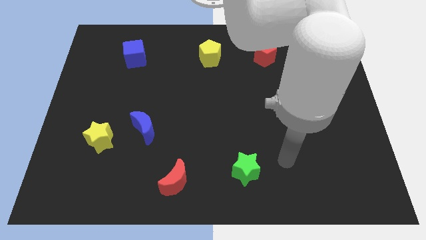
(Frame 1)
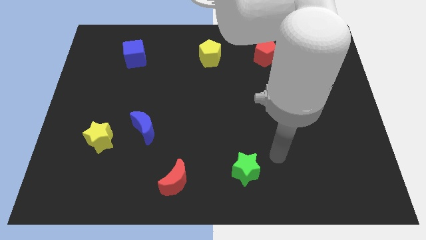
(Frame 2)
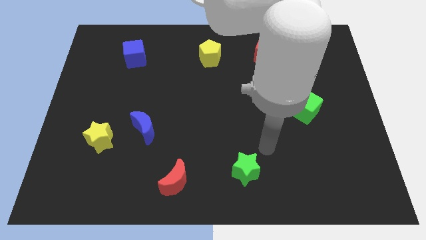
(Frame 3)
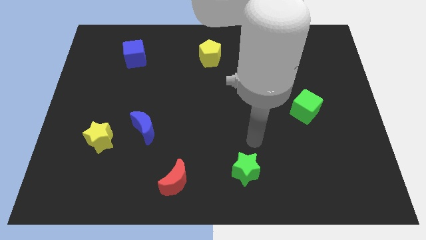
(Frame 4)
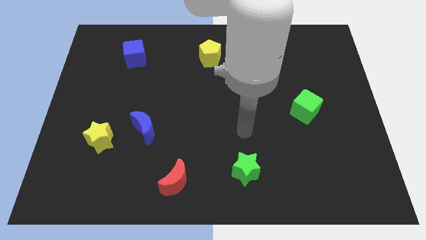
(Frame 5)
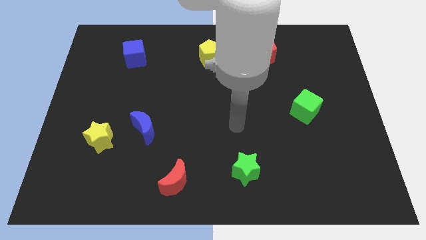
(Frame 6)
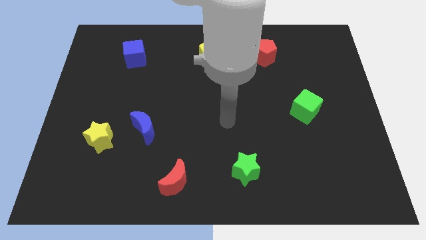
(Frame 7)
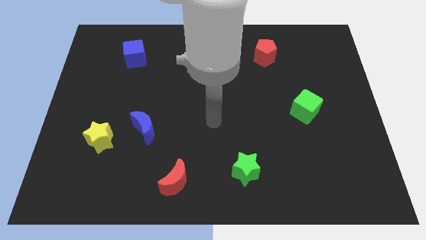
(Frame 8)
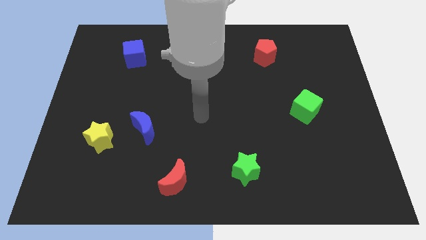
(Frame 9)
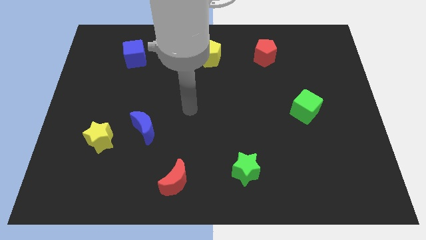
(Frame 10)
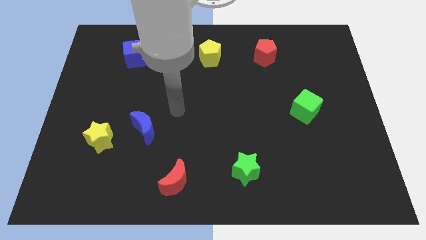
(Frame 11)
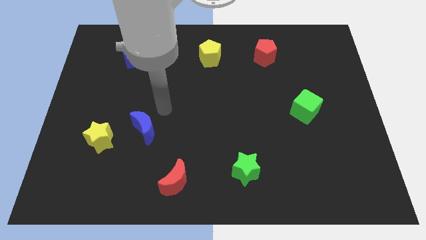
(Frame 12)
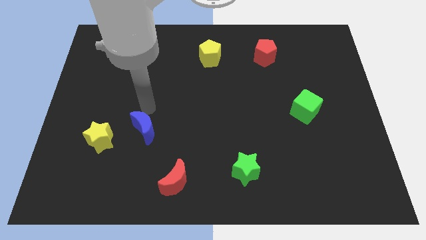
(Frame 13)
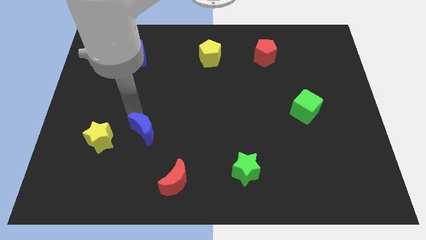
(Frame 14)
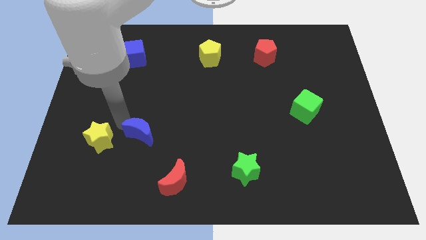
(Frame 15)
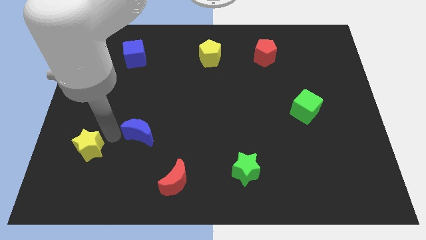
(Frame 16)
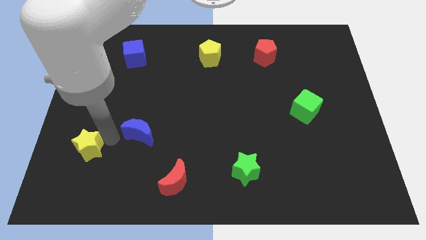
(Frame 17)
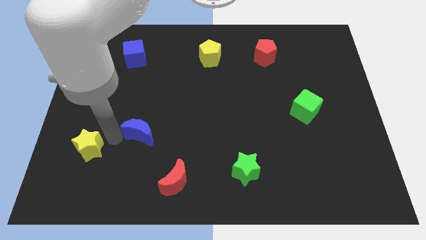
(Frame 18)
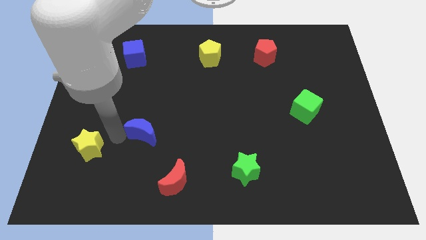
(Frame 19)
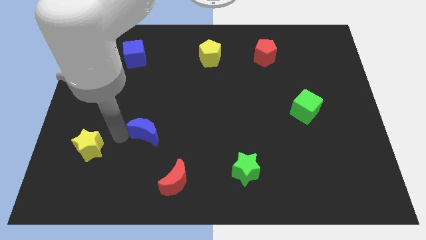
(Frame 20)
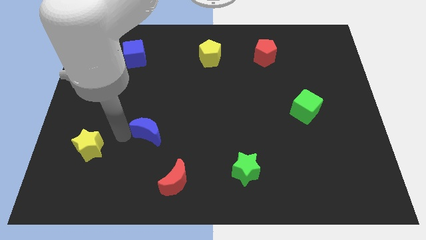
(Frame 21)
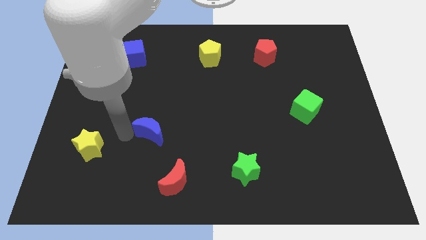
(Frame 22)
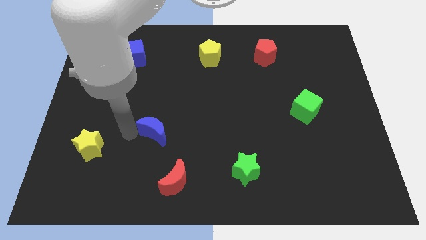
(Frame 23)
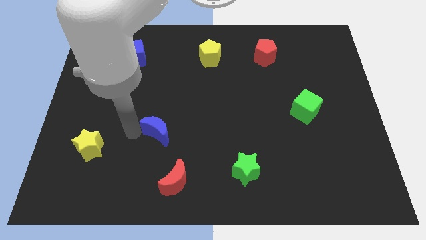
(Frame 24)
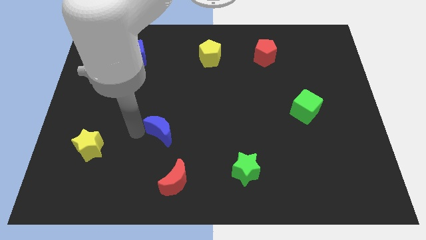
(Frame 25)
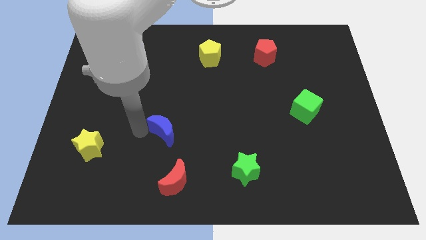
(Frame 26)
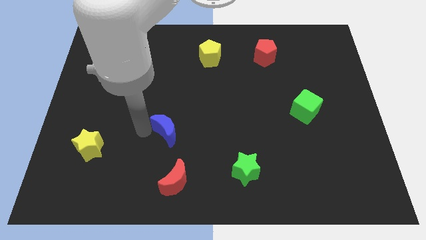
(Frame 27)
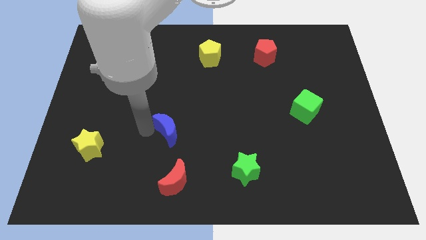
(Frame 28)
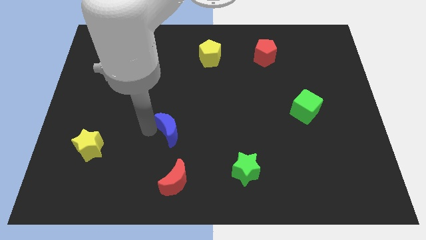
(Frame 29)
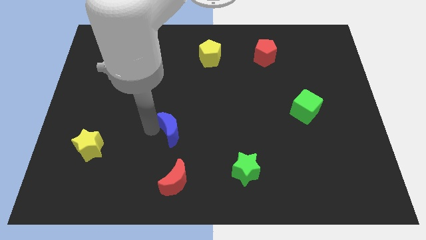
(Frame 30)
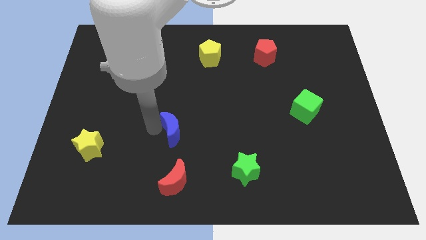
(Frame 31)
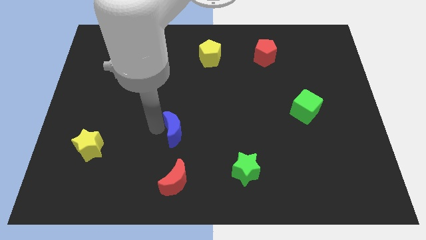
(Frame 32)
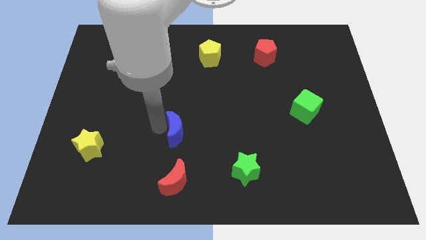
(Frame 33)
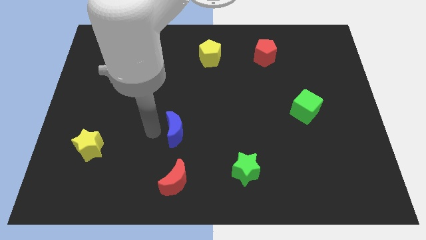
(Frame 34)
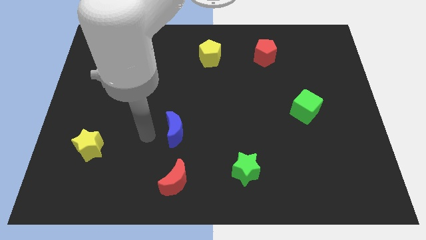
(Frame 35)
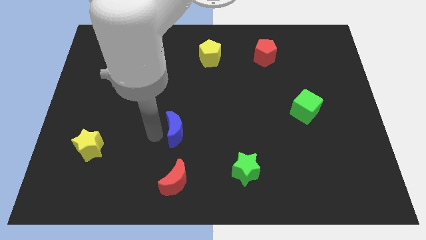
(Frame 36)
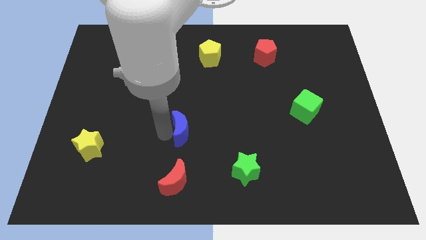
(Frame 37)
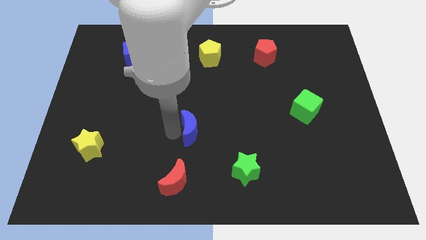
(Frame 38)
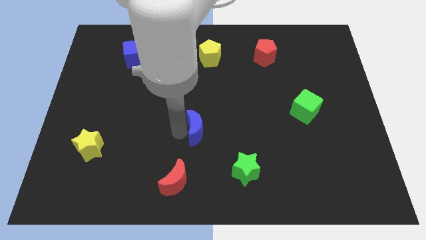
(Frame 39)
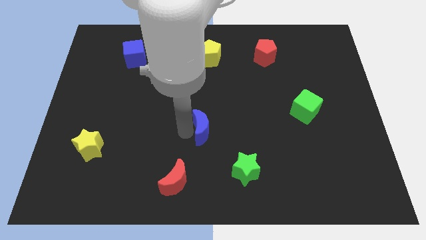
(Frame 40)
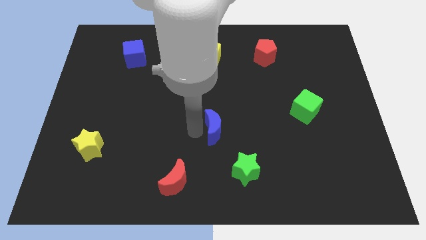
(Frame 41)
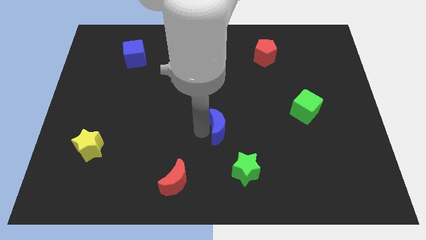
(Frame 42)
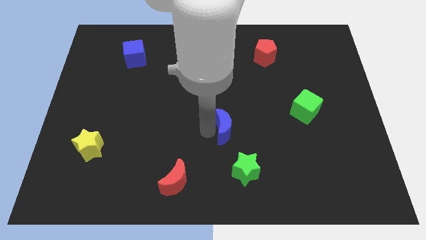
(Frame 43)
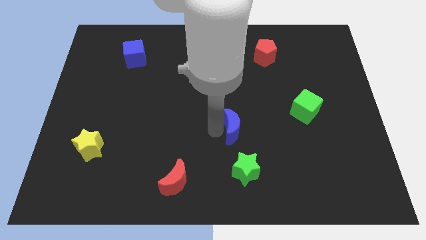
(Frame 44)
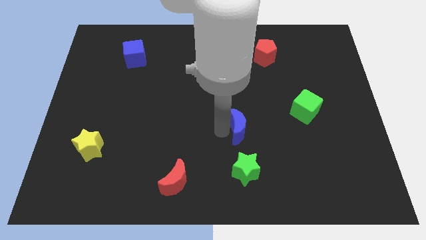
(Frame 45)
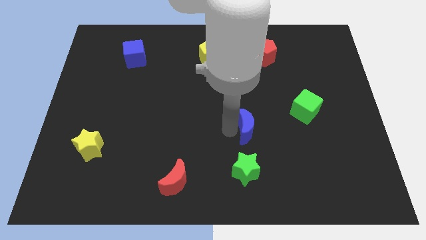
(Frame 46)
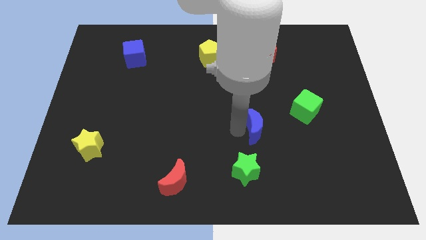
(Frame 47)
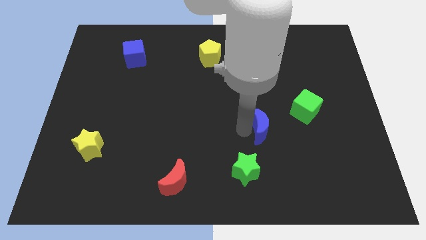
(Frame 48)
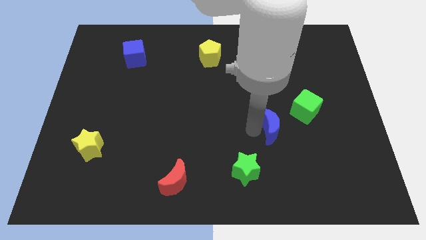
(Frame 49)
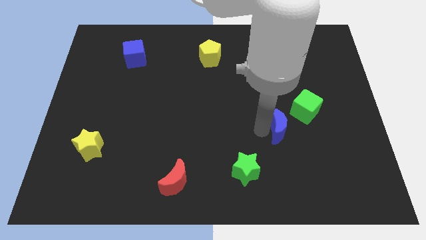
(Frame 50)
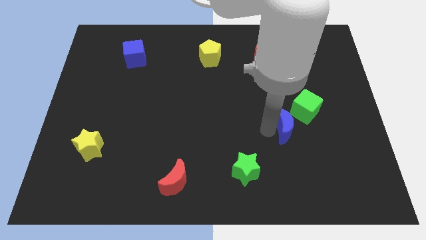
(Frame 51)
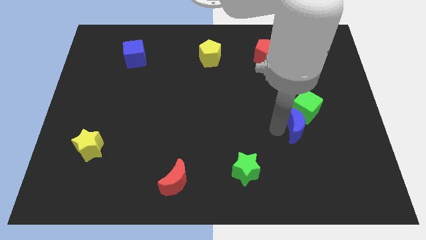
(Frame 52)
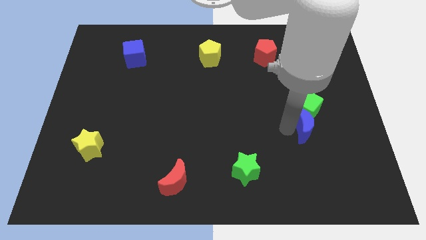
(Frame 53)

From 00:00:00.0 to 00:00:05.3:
slide the blue moon diagonally down and to the right of the green cube

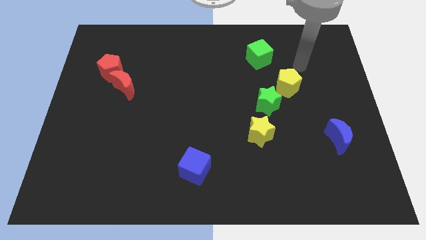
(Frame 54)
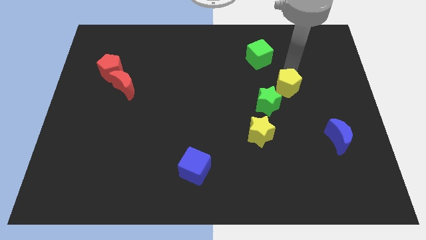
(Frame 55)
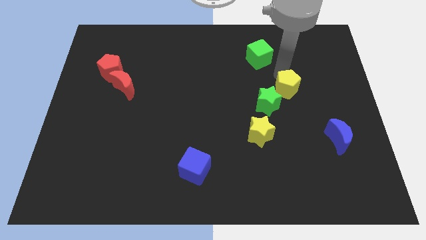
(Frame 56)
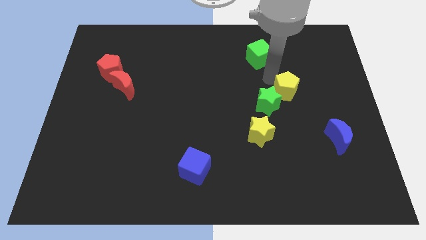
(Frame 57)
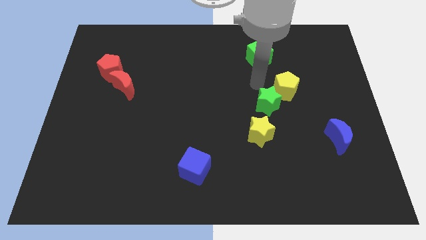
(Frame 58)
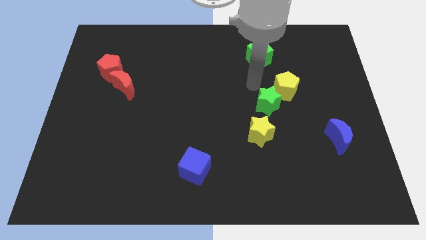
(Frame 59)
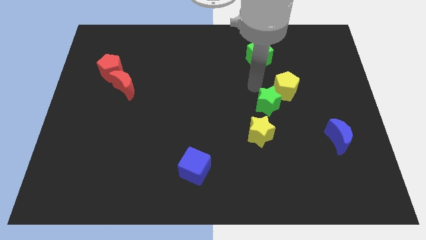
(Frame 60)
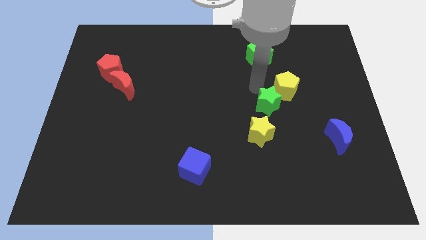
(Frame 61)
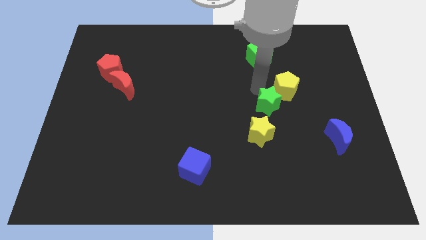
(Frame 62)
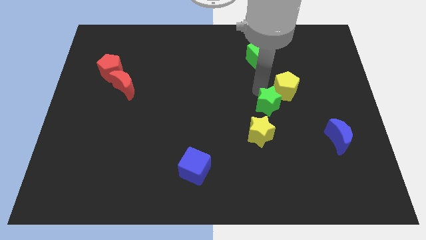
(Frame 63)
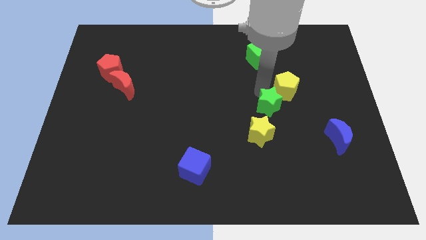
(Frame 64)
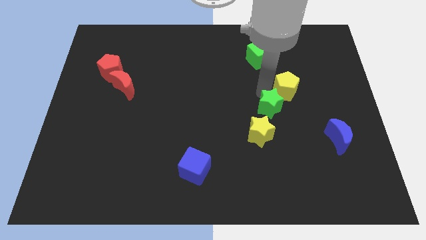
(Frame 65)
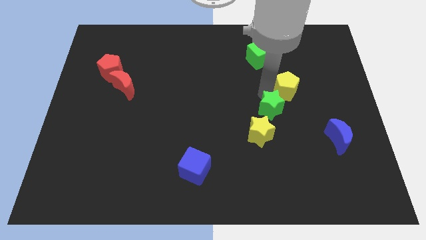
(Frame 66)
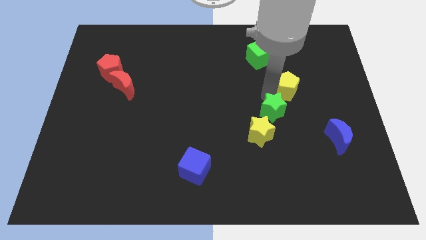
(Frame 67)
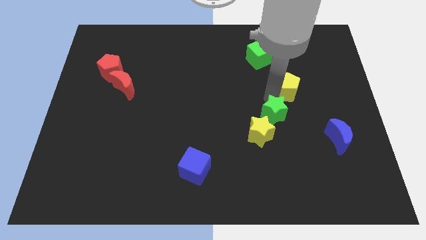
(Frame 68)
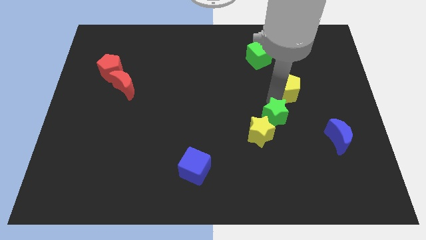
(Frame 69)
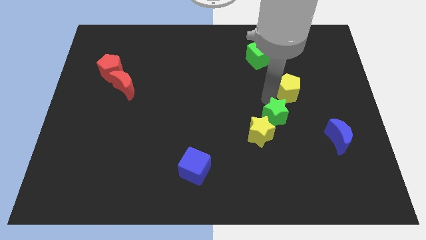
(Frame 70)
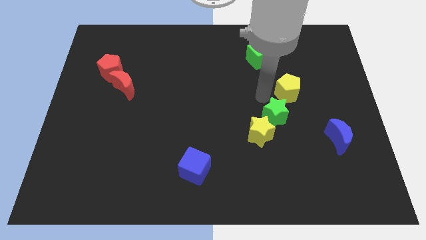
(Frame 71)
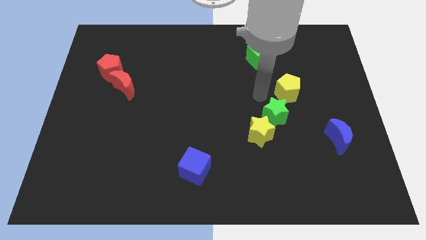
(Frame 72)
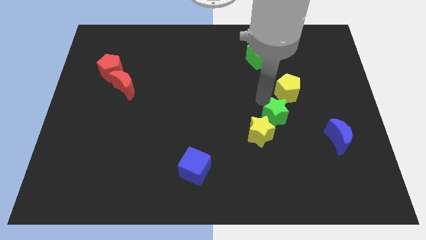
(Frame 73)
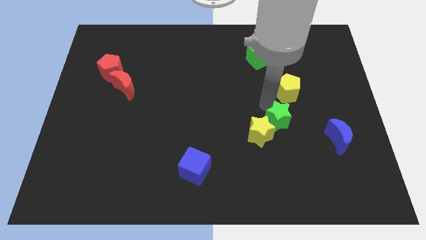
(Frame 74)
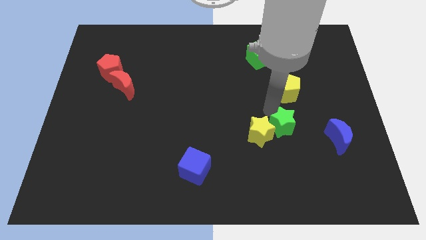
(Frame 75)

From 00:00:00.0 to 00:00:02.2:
move the green star to the left side of the blue moon
